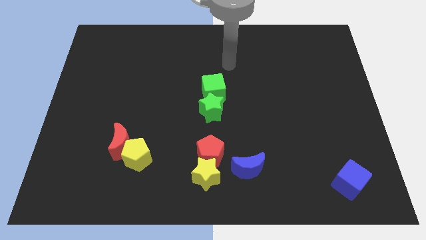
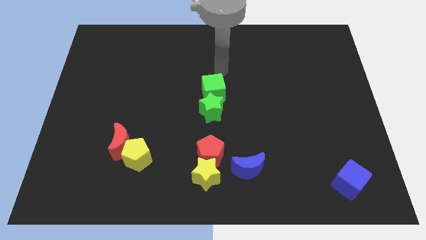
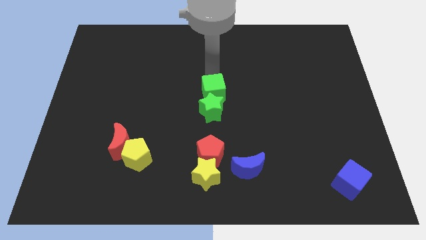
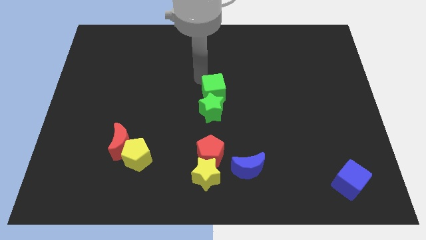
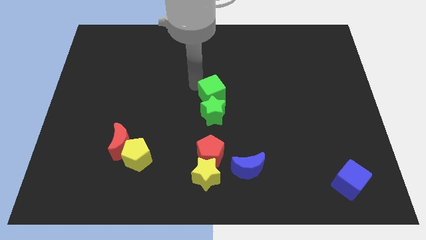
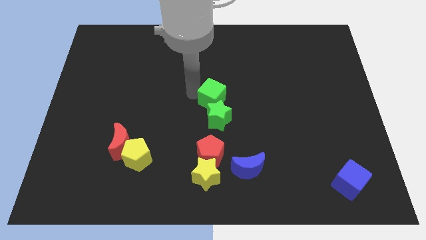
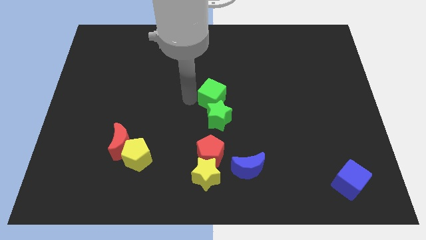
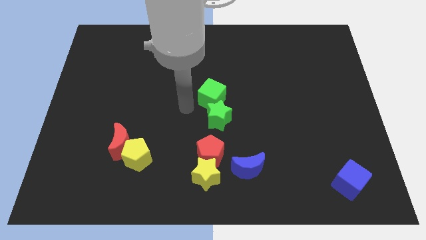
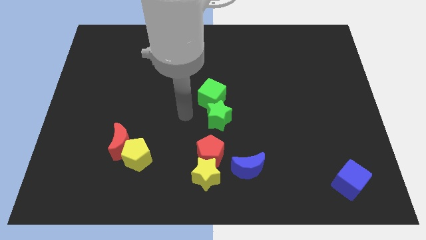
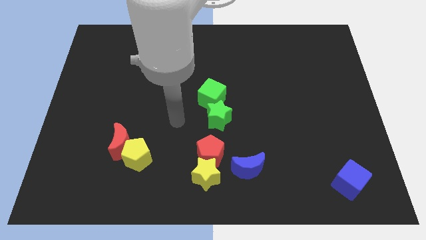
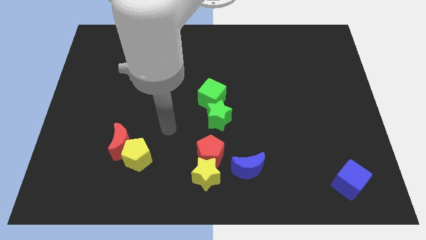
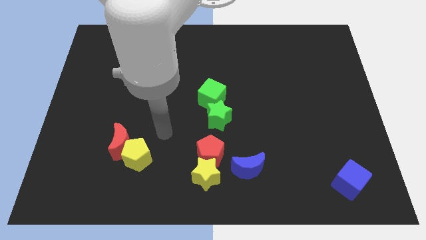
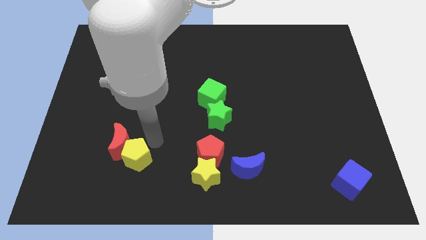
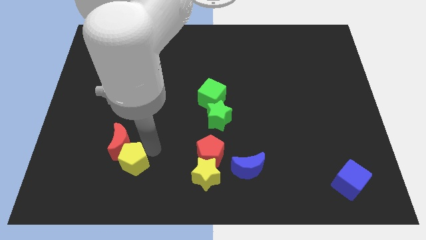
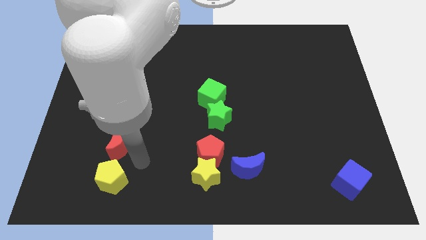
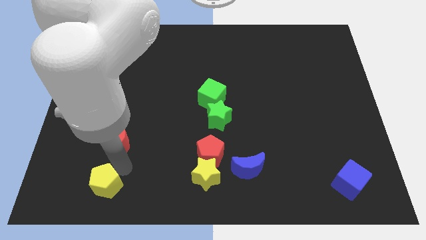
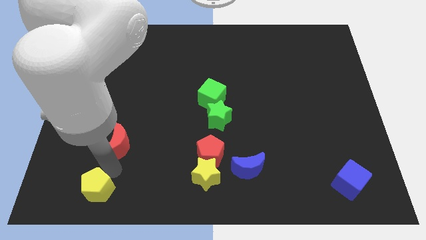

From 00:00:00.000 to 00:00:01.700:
separate the red moon from the yellow pentagon

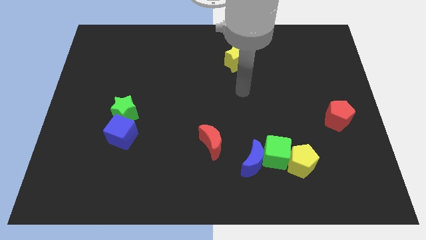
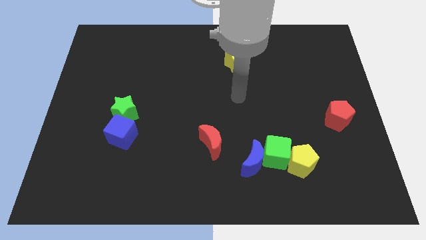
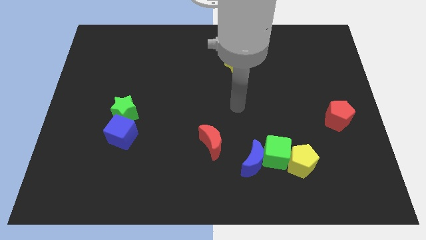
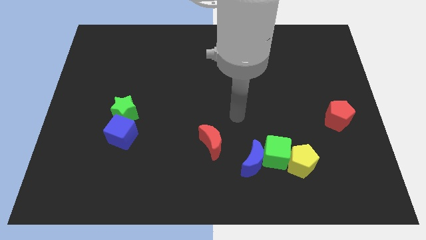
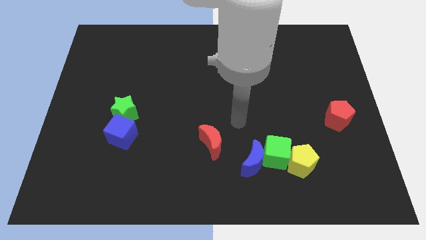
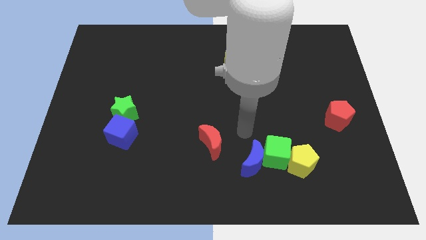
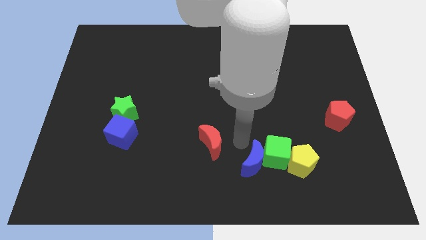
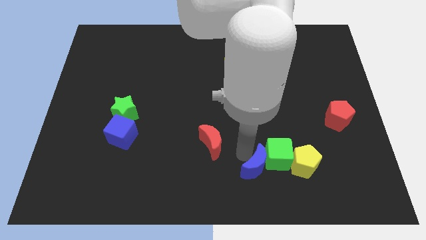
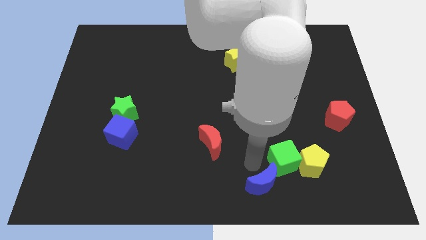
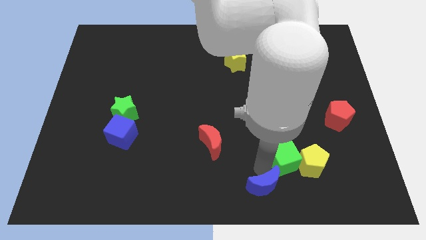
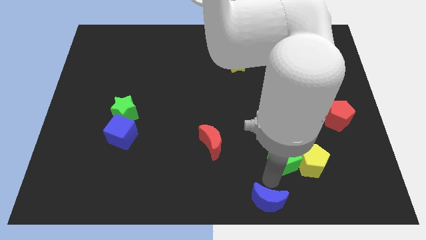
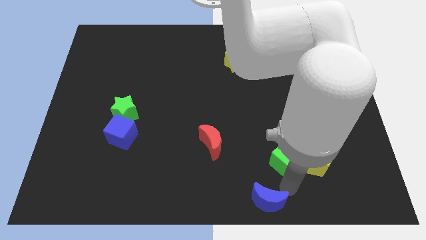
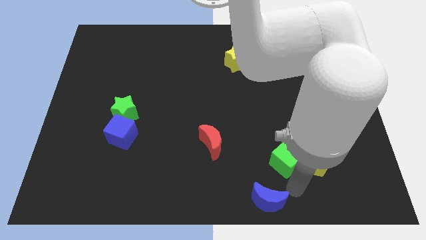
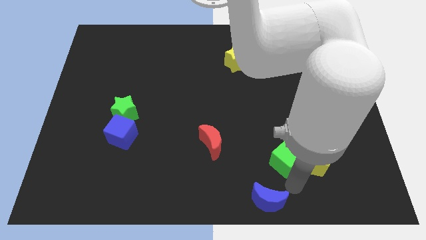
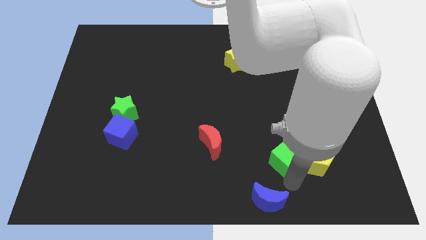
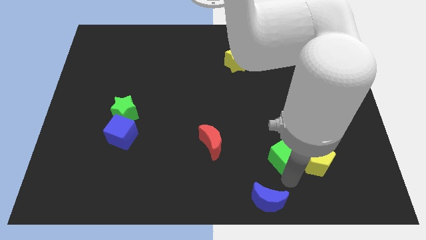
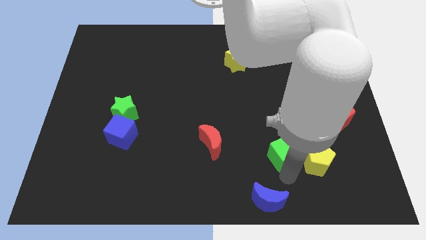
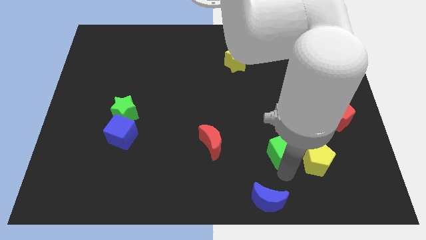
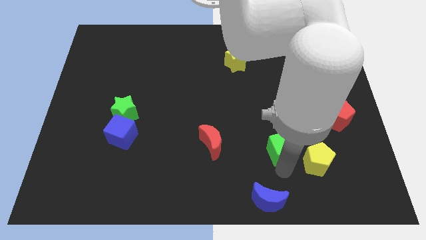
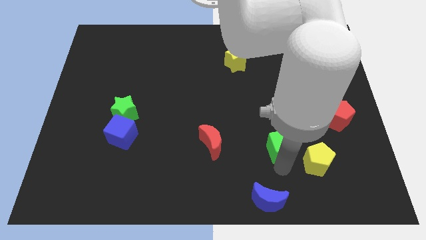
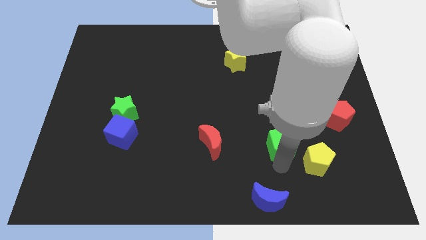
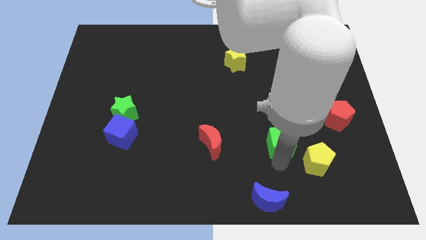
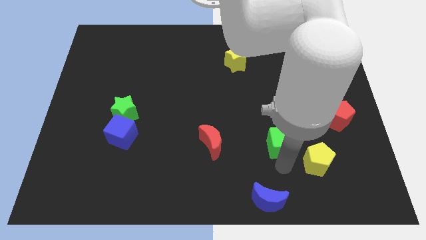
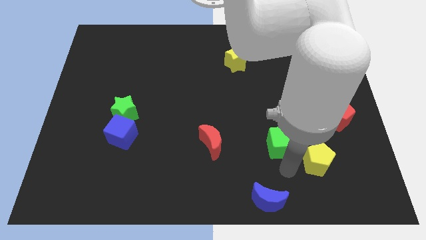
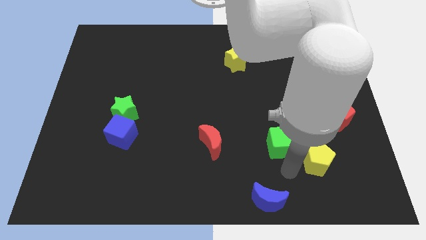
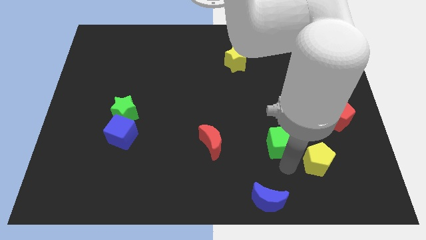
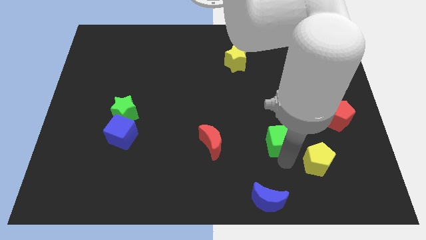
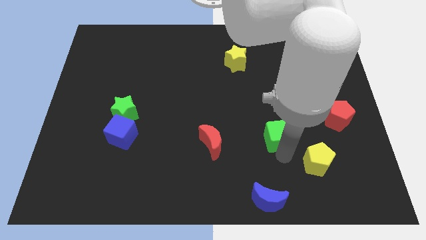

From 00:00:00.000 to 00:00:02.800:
move the green cube away from the blue moon and yellow pentagon

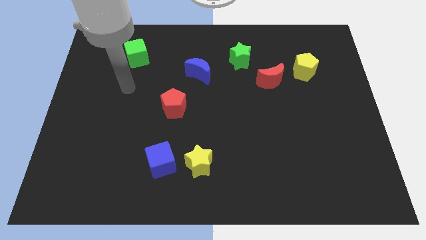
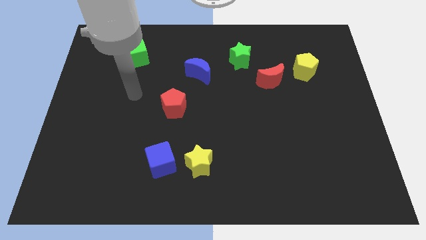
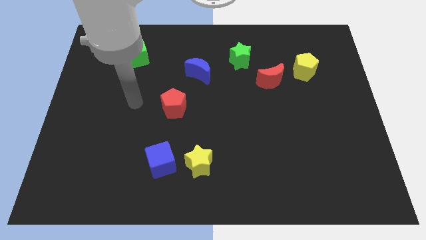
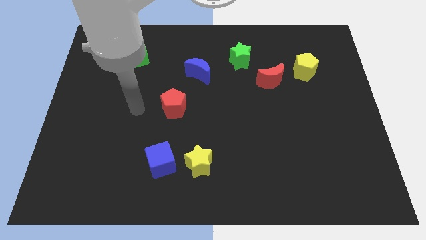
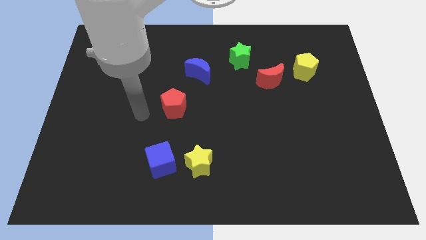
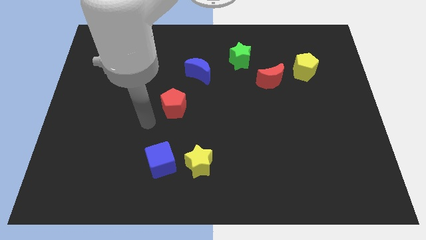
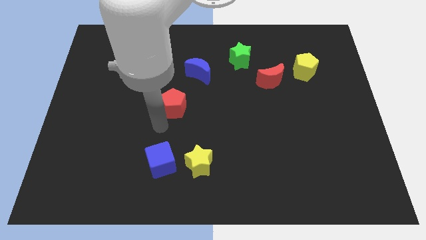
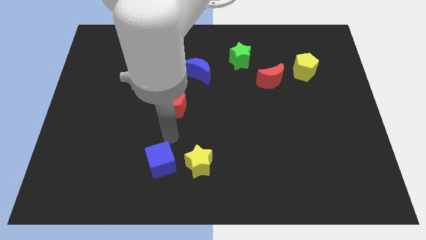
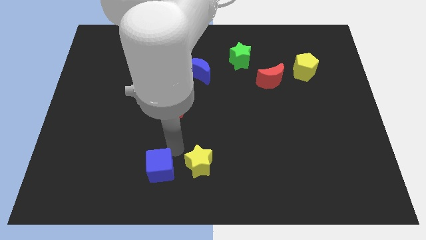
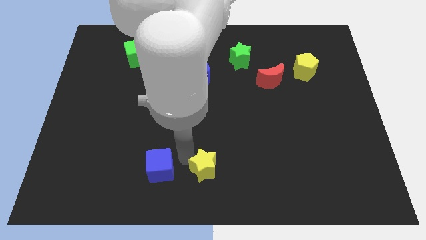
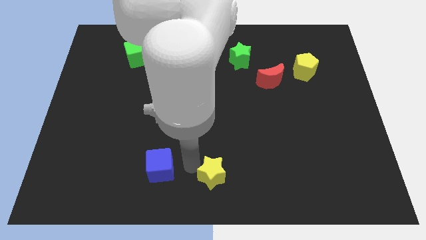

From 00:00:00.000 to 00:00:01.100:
pull the blue cube apart from the yellow star

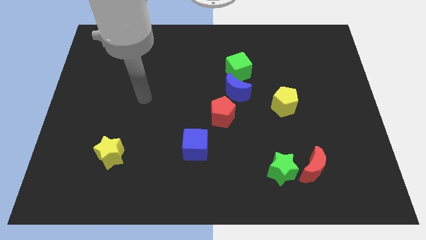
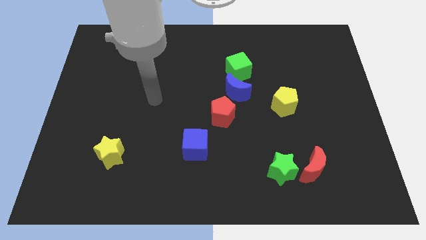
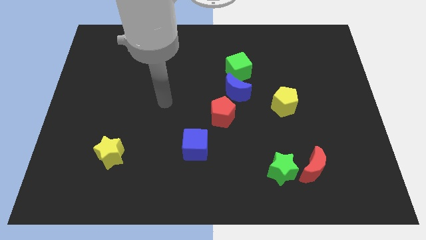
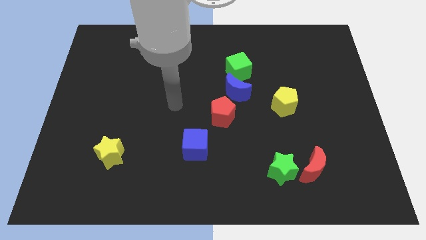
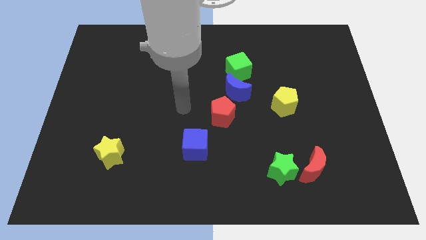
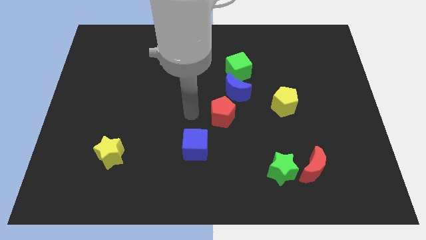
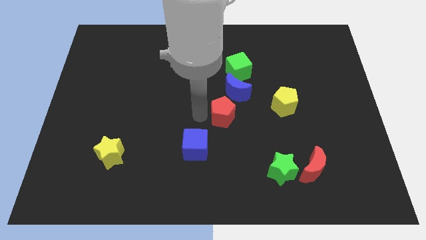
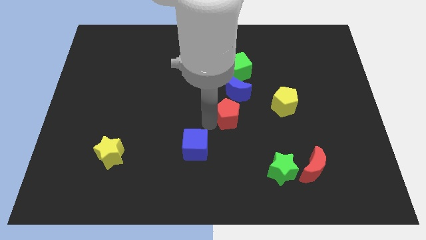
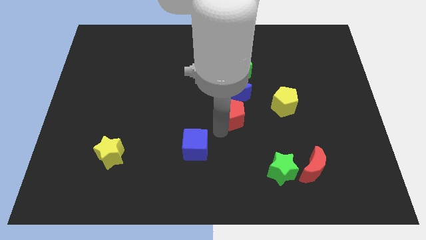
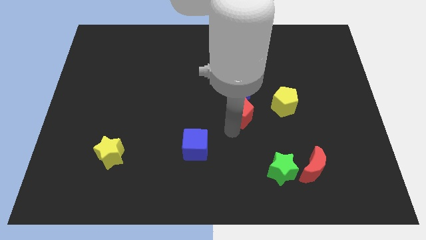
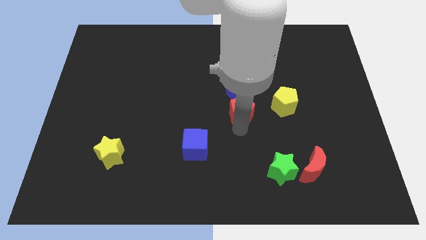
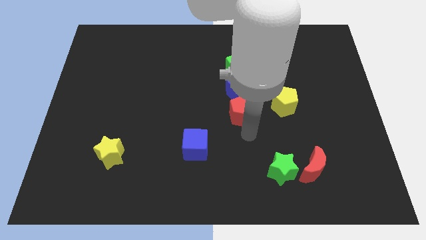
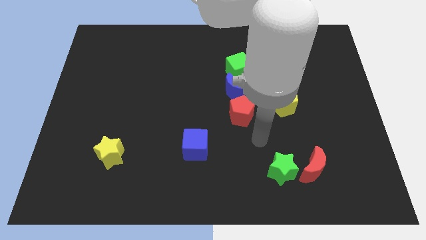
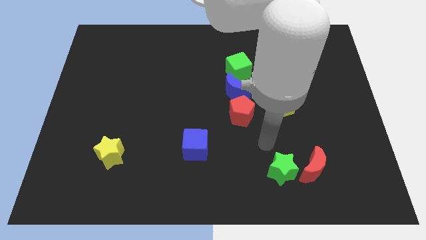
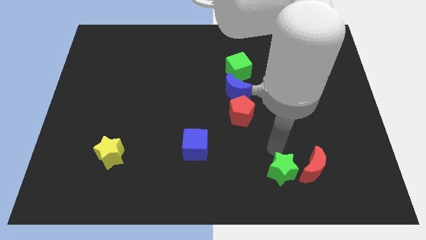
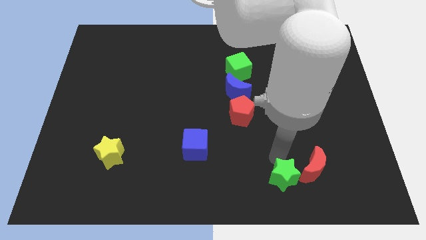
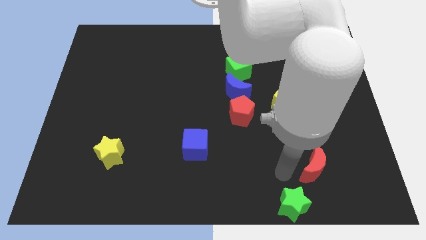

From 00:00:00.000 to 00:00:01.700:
separate the red moon from the green star

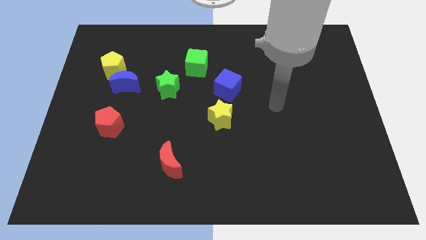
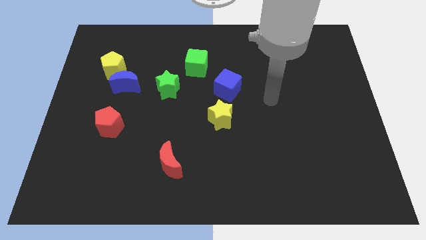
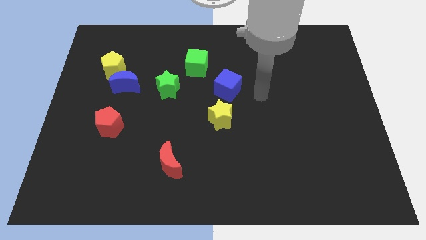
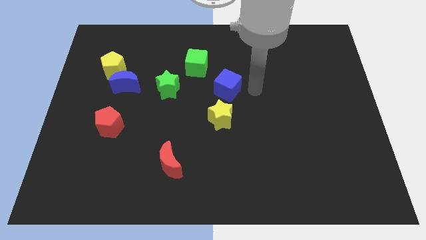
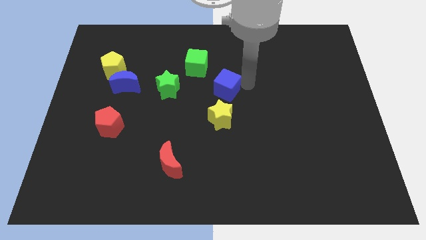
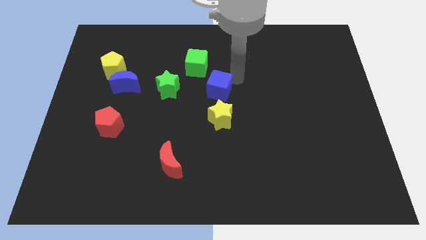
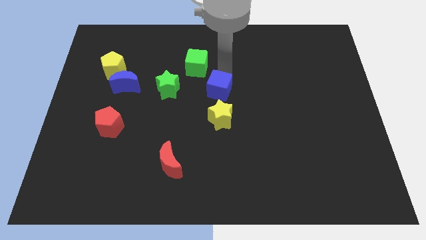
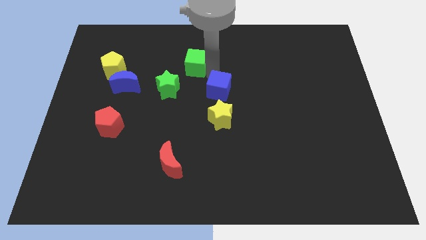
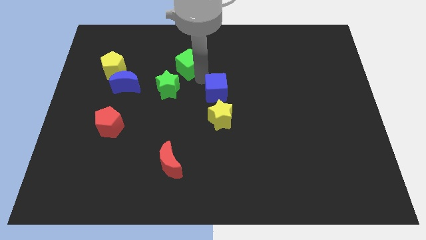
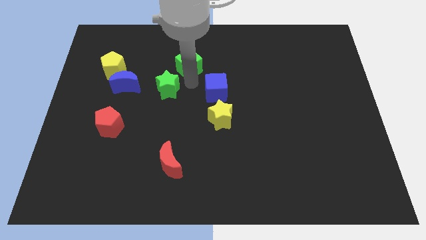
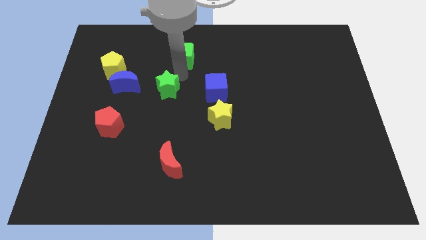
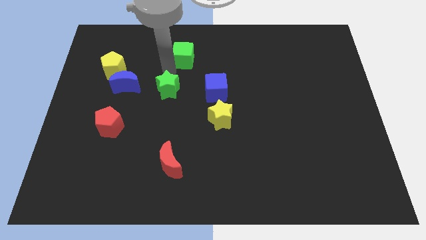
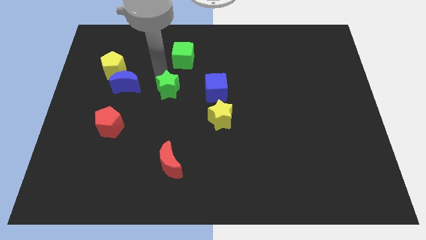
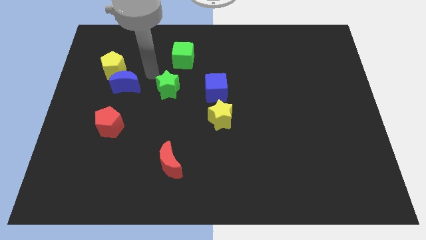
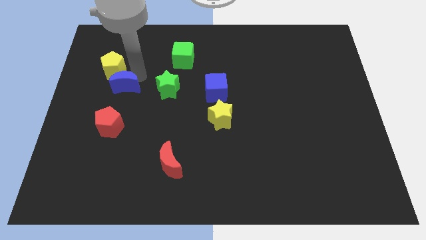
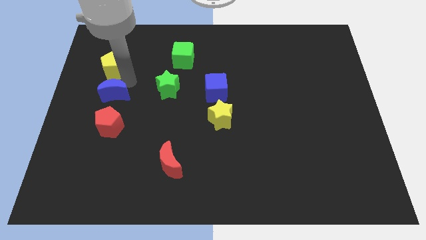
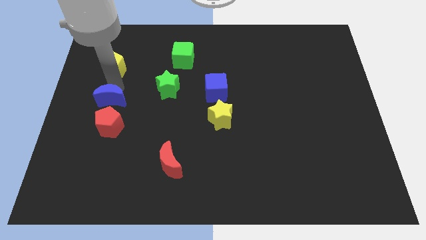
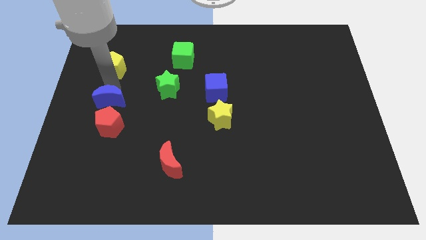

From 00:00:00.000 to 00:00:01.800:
move the yellow pentagon away from the blue moon

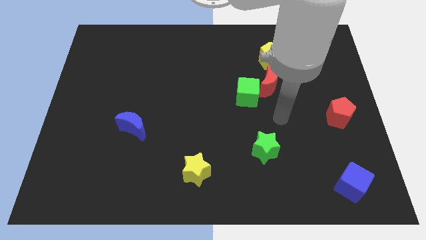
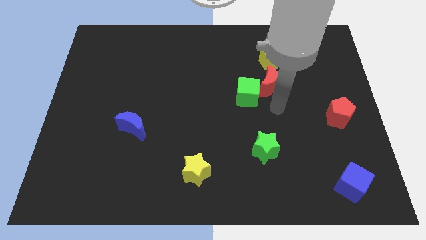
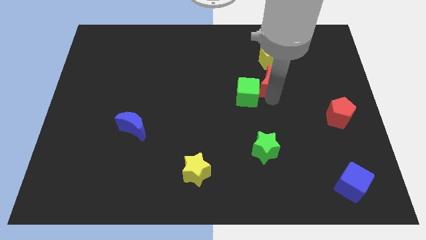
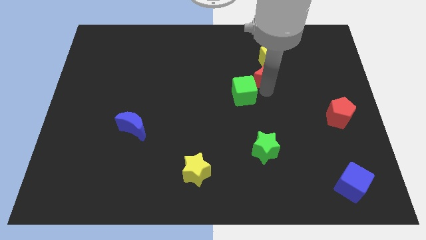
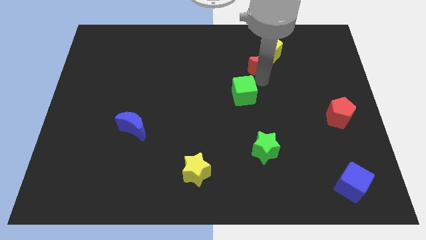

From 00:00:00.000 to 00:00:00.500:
move the green cube away from the red moon
